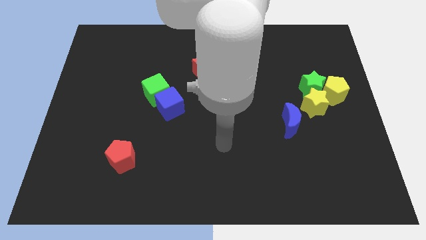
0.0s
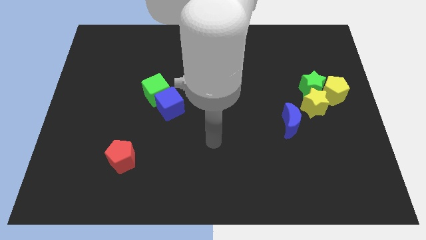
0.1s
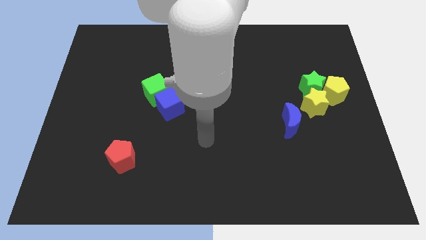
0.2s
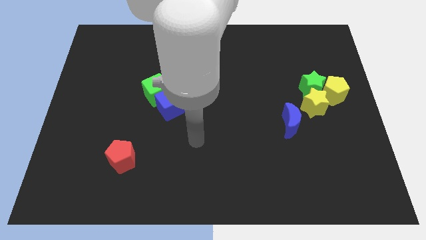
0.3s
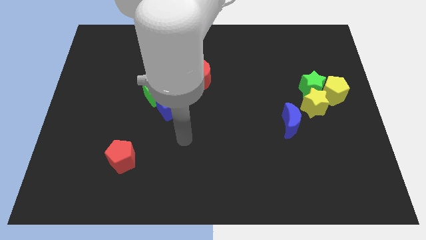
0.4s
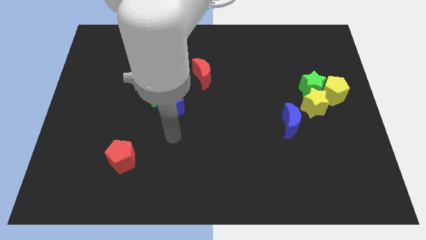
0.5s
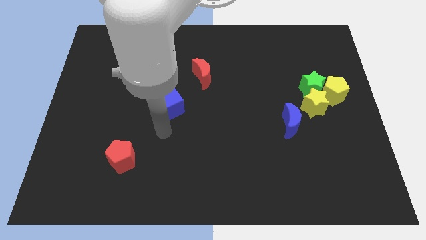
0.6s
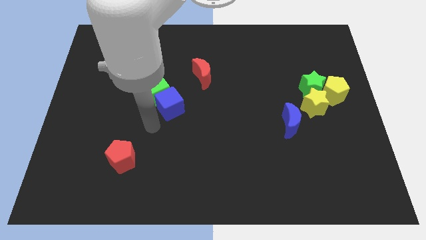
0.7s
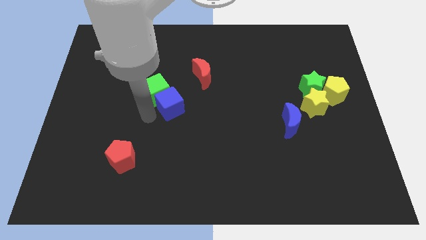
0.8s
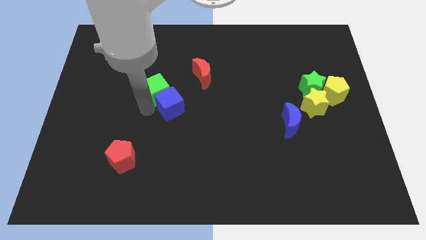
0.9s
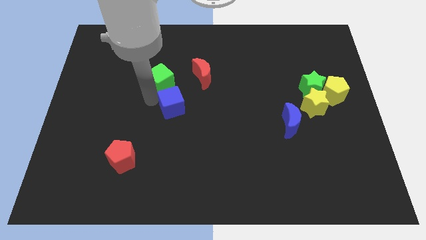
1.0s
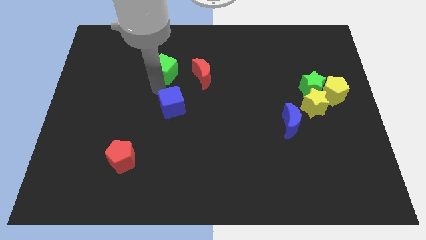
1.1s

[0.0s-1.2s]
separate the blue cube from the green cube

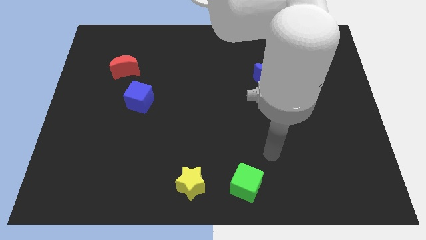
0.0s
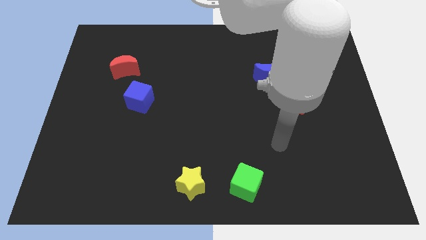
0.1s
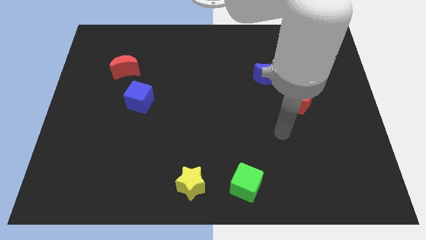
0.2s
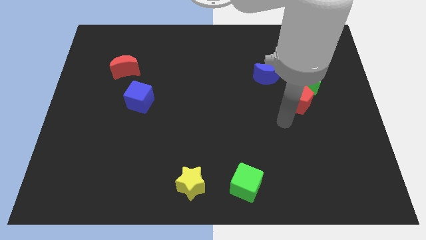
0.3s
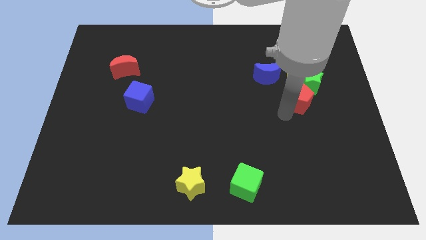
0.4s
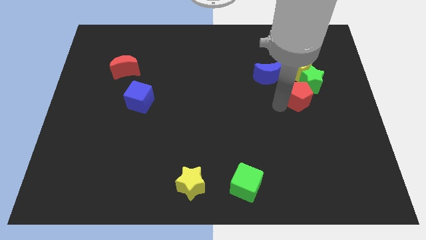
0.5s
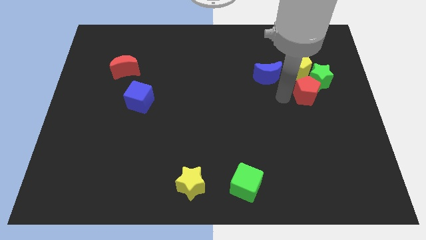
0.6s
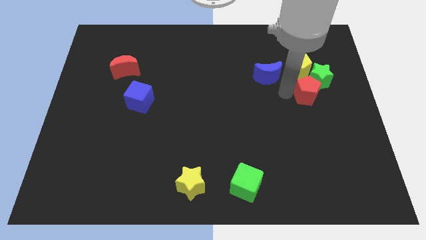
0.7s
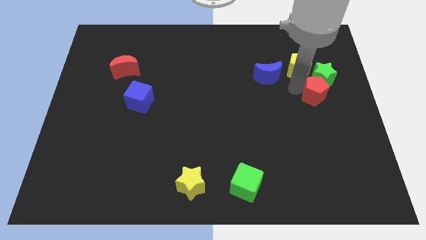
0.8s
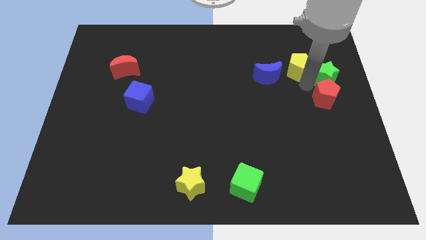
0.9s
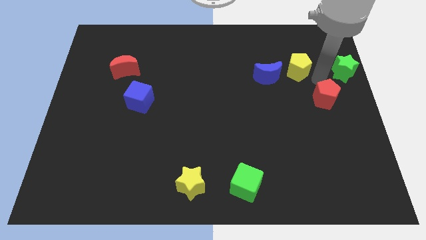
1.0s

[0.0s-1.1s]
pull the red pentagon apart from the green star

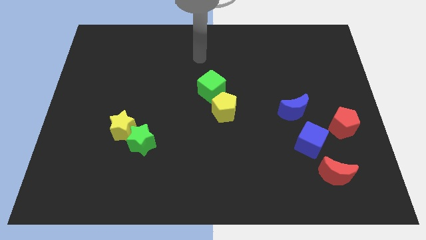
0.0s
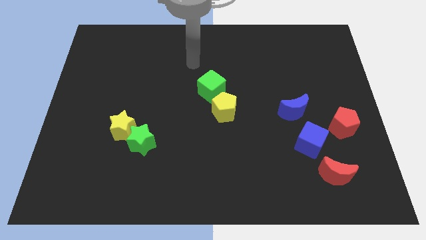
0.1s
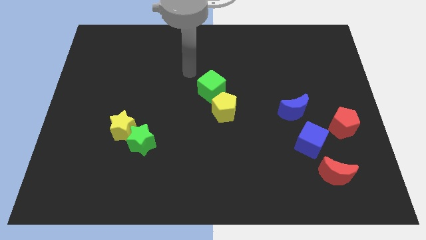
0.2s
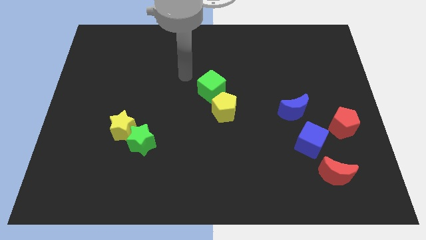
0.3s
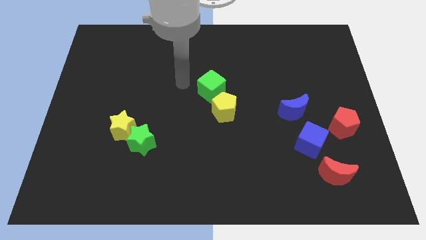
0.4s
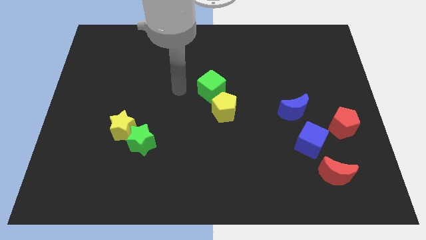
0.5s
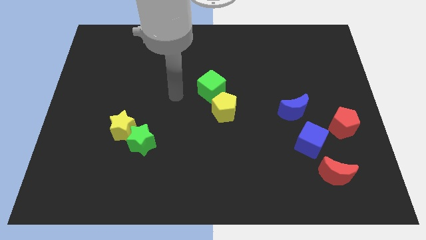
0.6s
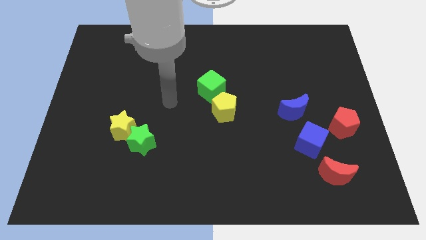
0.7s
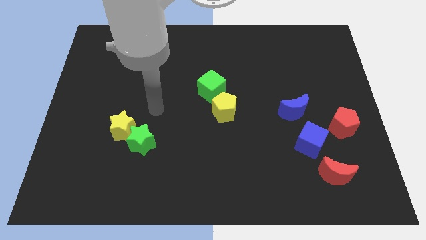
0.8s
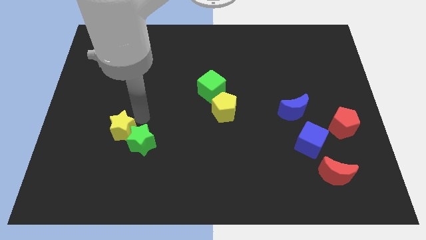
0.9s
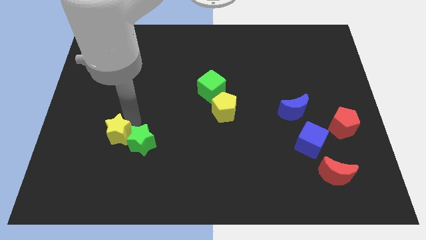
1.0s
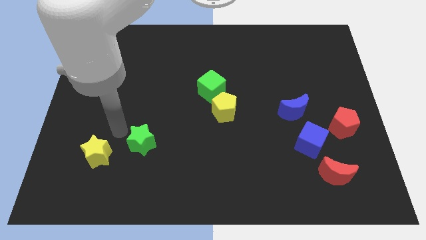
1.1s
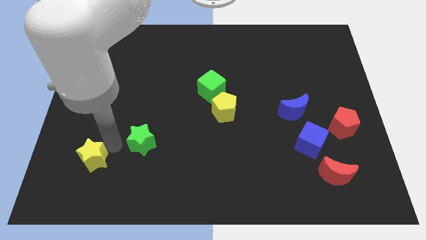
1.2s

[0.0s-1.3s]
pull the green star apart from the yellow star

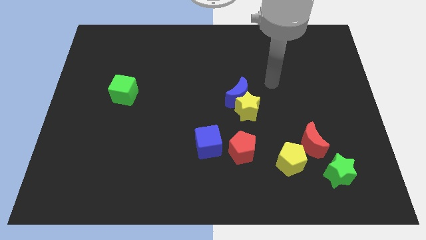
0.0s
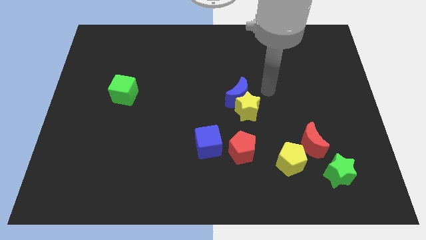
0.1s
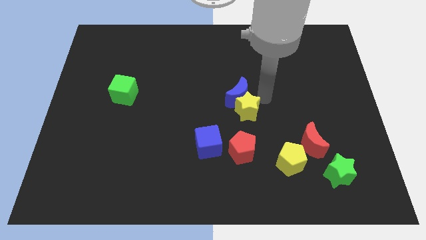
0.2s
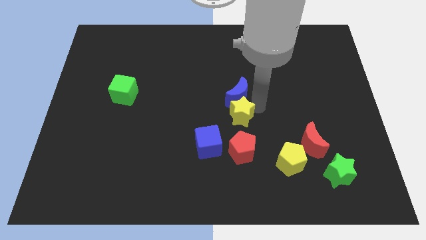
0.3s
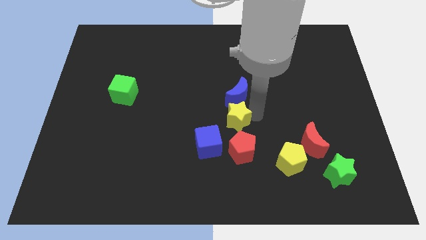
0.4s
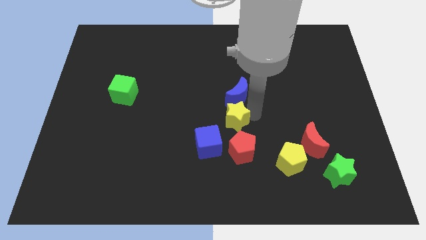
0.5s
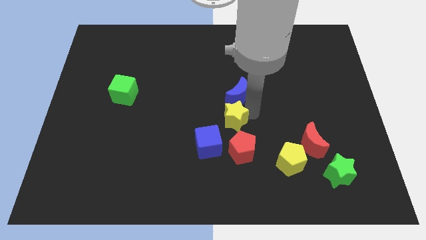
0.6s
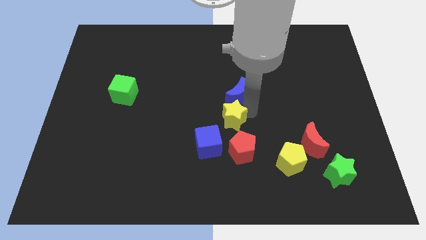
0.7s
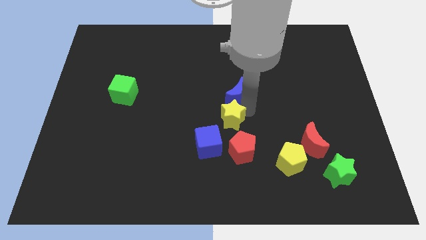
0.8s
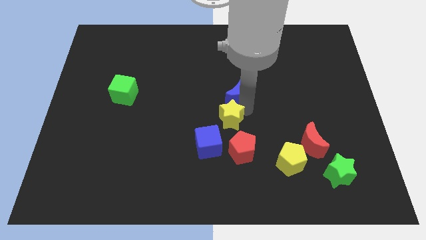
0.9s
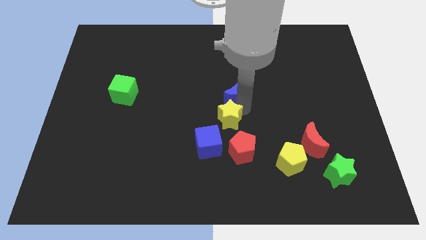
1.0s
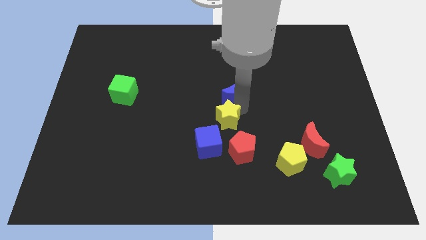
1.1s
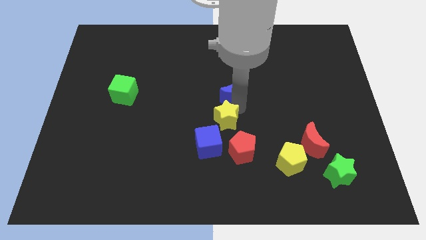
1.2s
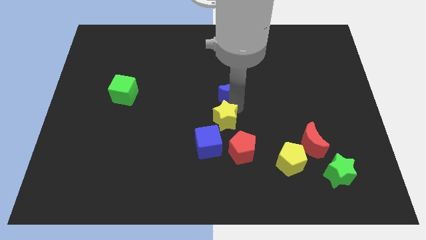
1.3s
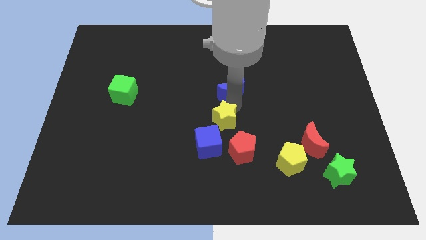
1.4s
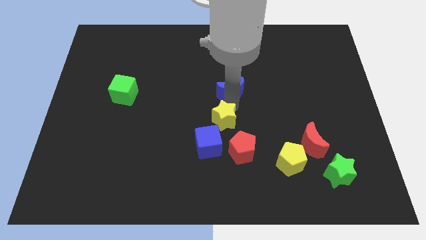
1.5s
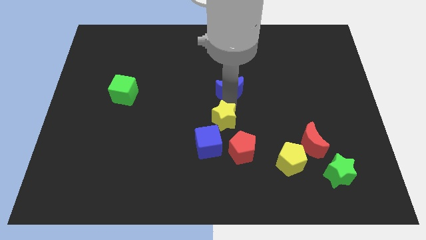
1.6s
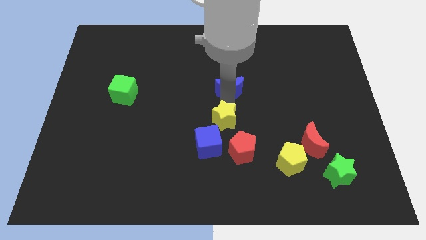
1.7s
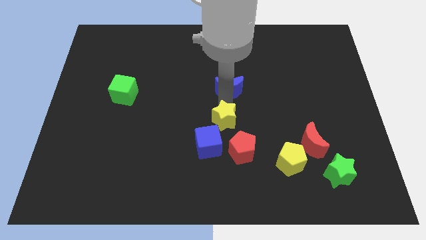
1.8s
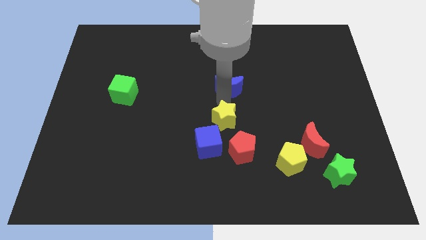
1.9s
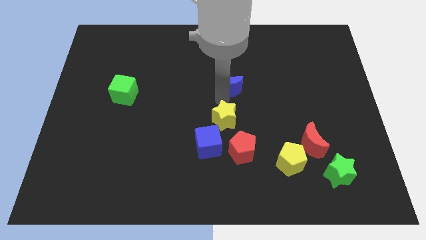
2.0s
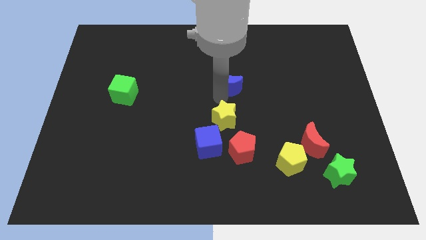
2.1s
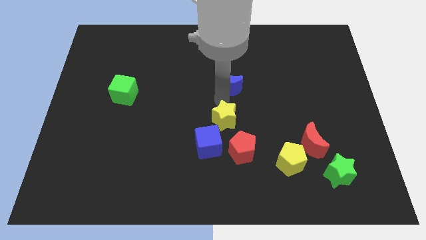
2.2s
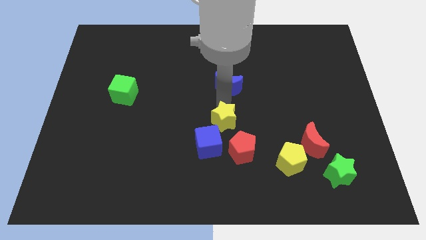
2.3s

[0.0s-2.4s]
pull the blue moon apart from the yellow star

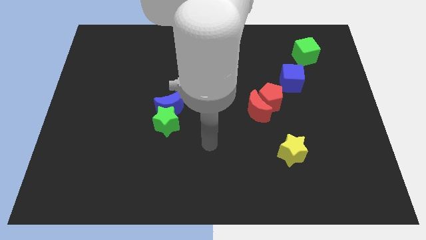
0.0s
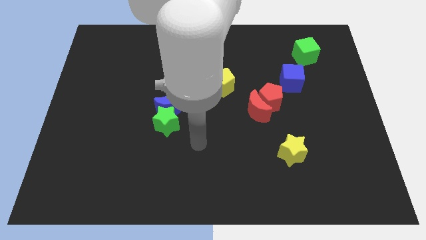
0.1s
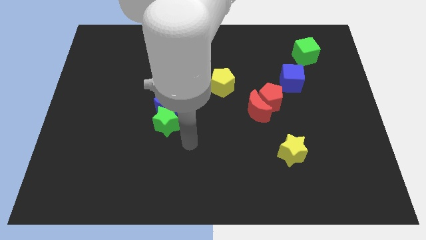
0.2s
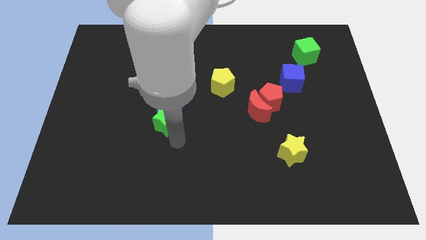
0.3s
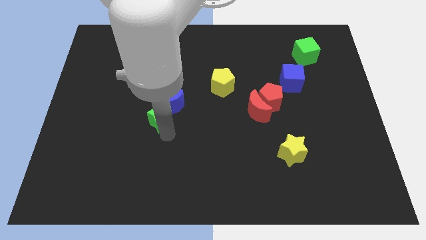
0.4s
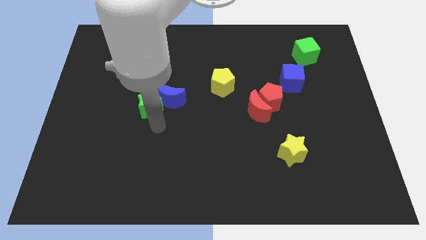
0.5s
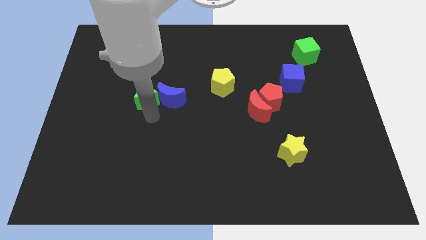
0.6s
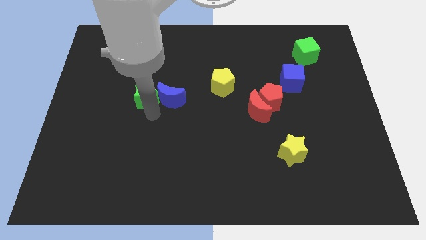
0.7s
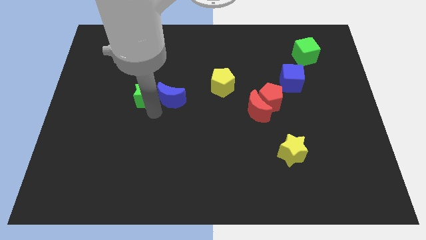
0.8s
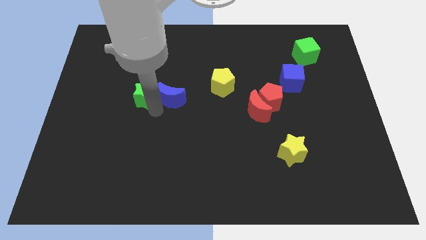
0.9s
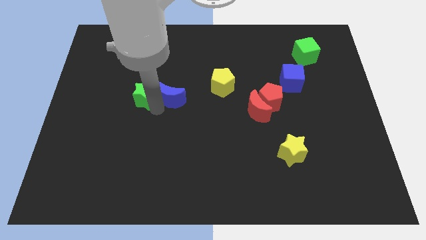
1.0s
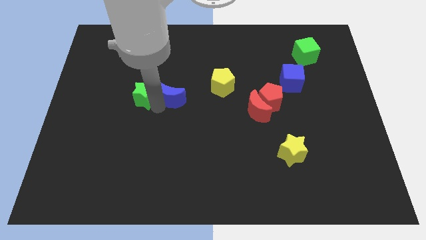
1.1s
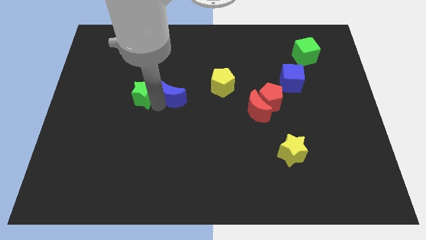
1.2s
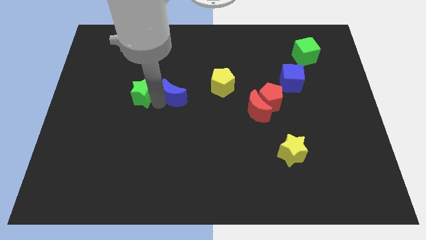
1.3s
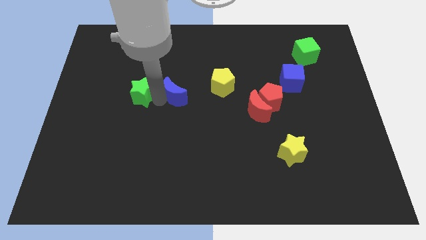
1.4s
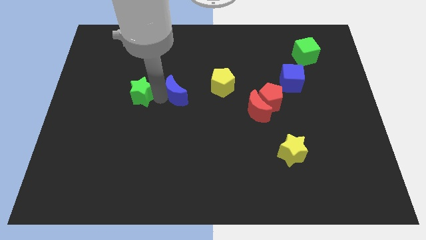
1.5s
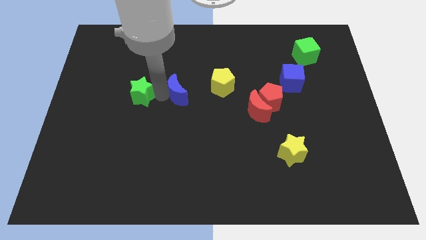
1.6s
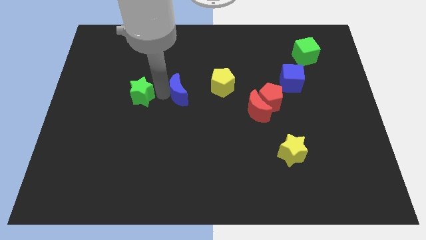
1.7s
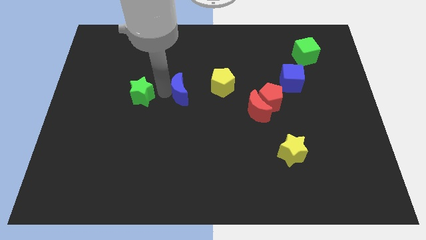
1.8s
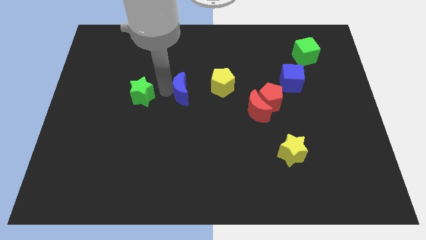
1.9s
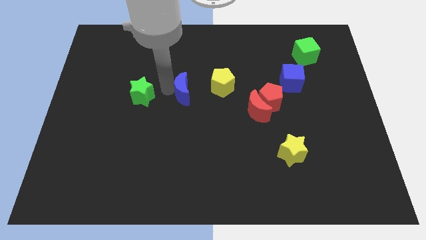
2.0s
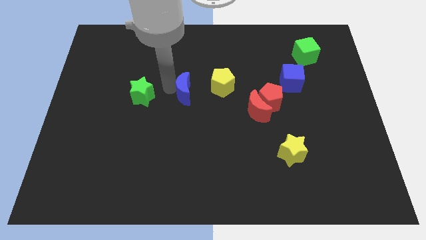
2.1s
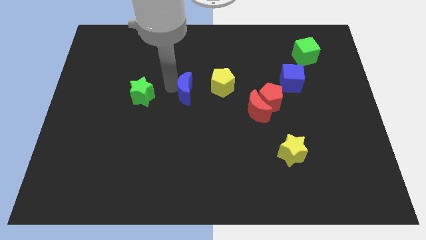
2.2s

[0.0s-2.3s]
pull the blue moon apart from the green star

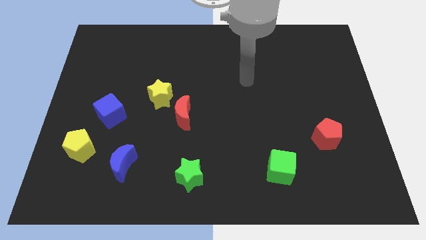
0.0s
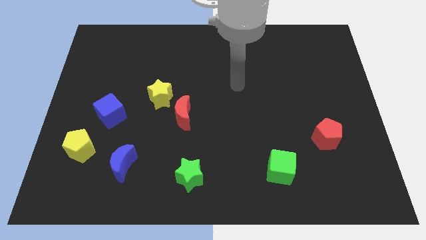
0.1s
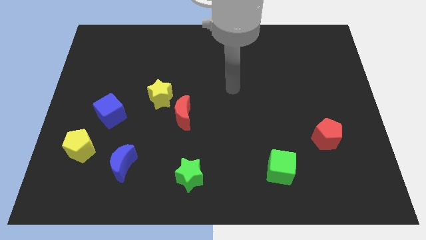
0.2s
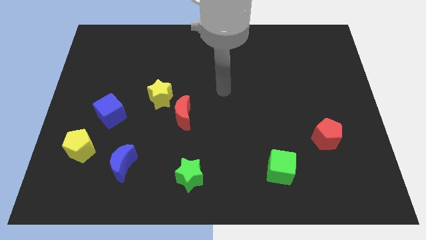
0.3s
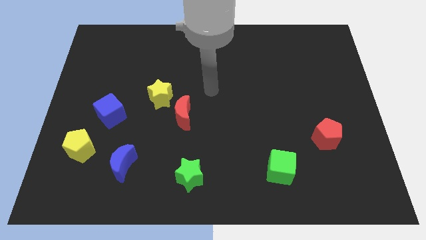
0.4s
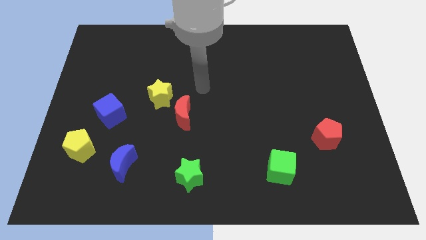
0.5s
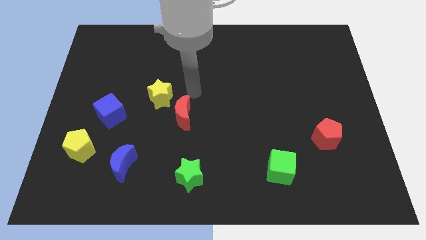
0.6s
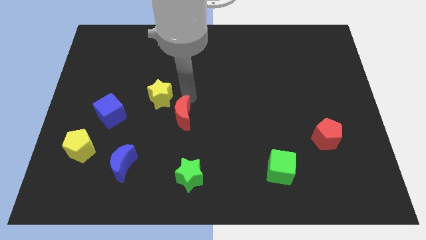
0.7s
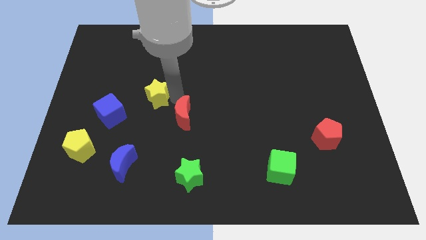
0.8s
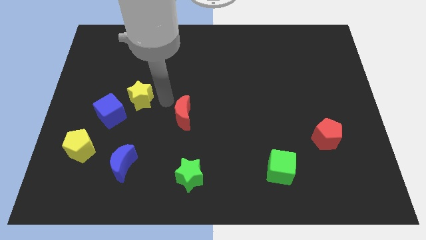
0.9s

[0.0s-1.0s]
pull the red moon apart from the yellow star
